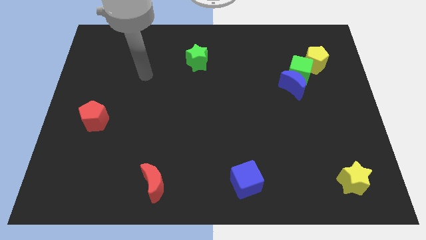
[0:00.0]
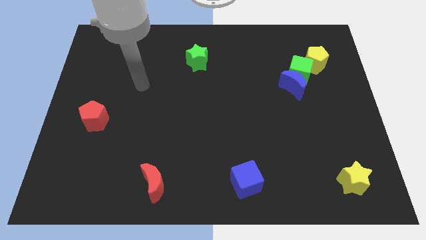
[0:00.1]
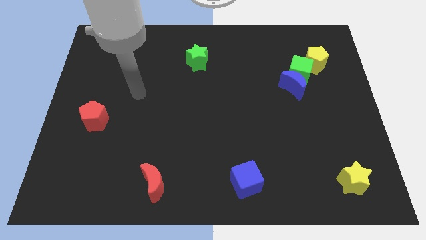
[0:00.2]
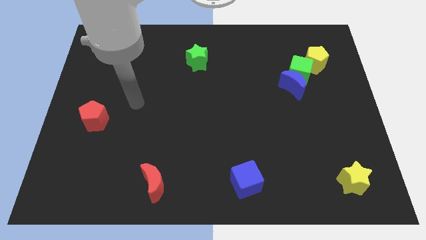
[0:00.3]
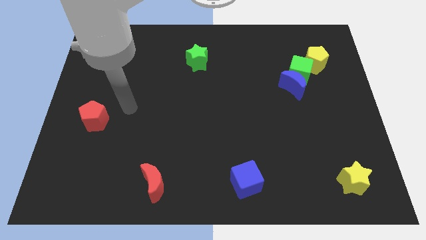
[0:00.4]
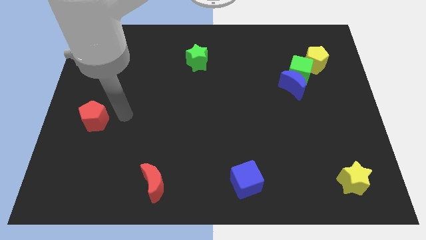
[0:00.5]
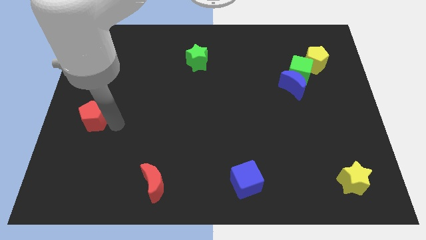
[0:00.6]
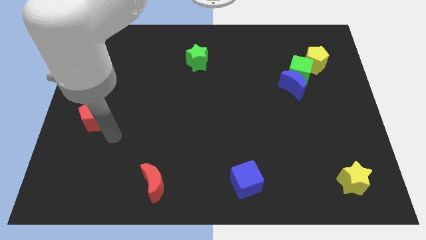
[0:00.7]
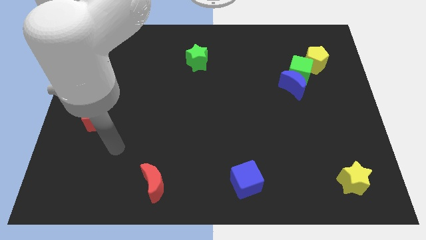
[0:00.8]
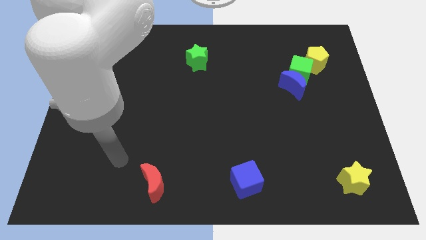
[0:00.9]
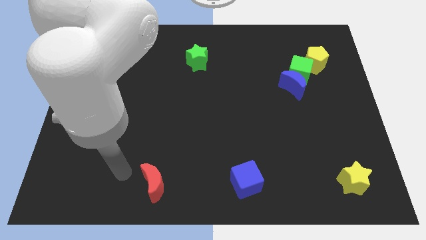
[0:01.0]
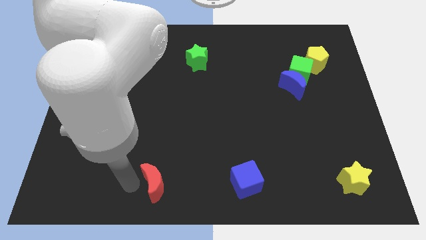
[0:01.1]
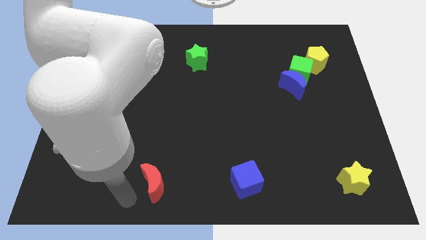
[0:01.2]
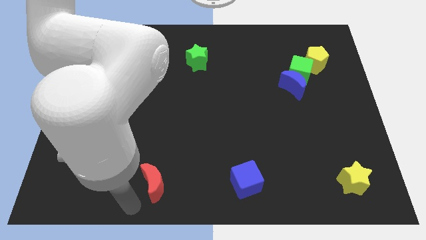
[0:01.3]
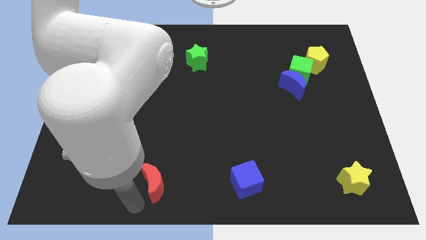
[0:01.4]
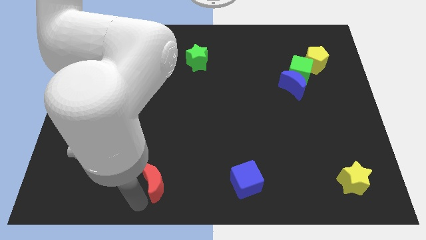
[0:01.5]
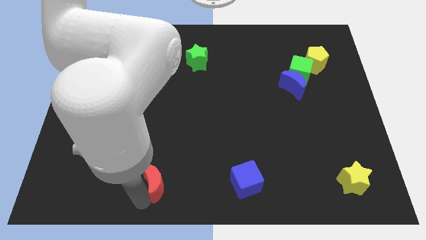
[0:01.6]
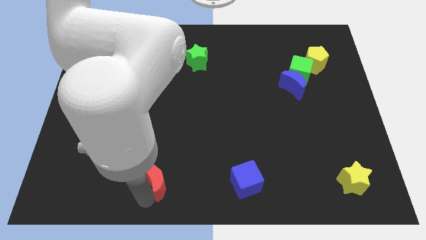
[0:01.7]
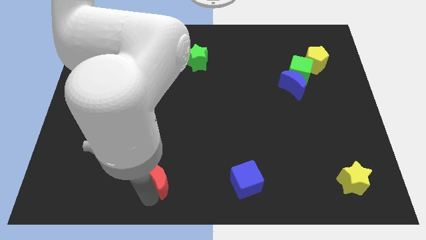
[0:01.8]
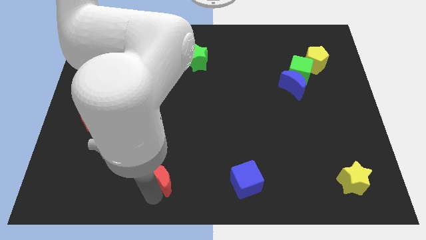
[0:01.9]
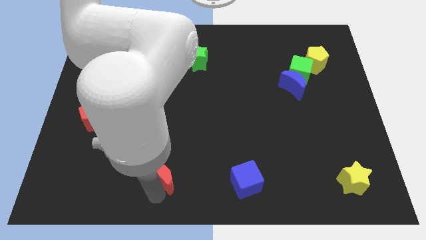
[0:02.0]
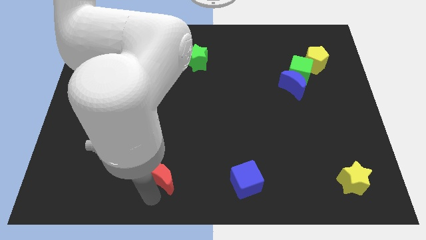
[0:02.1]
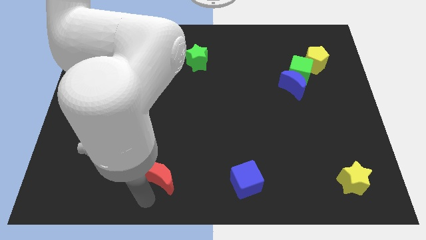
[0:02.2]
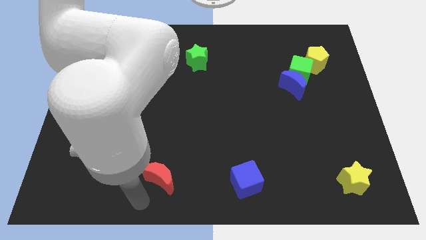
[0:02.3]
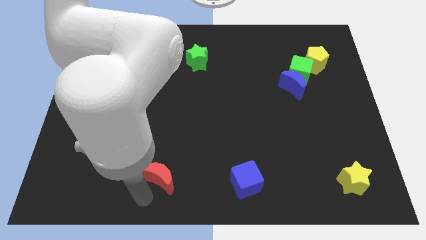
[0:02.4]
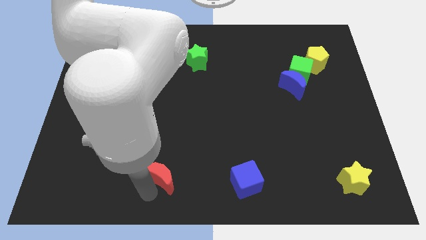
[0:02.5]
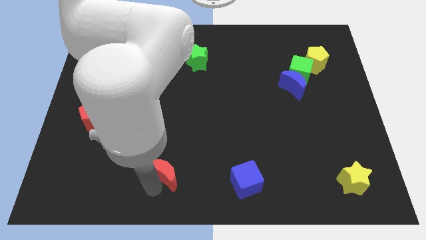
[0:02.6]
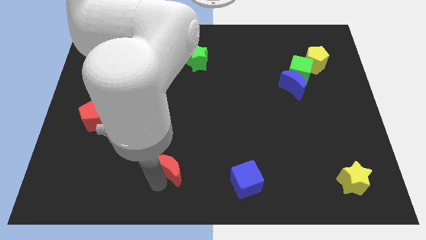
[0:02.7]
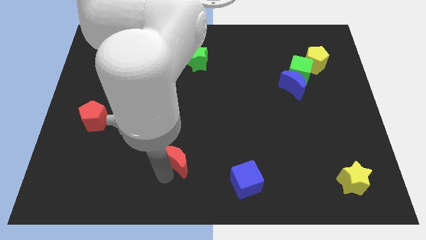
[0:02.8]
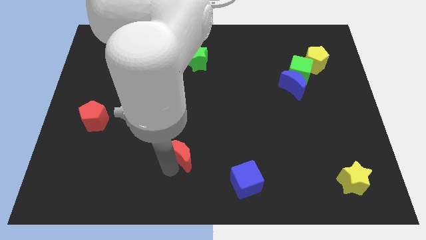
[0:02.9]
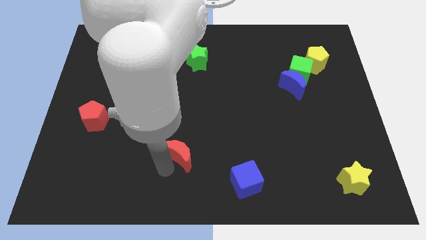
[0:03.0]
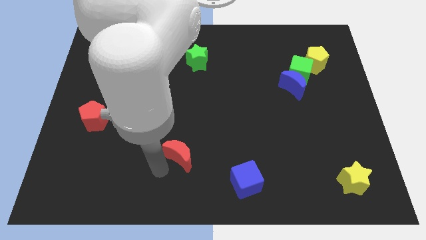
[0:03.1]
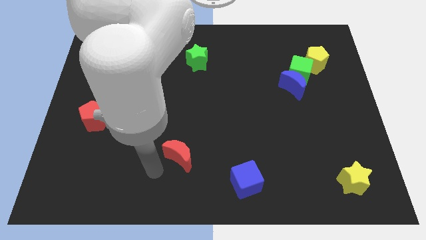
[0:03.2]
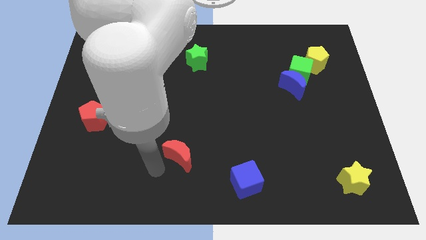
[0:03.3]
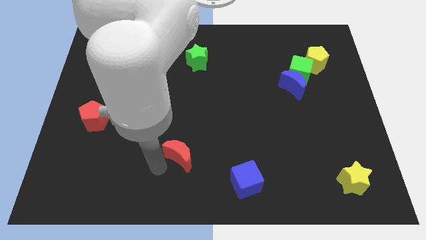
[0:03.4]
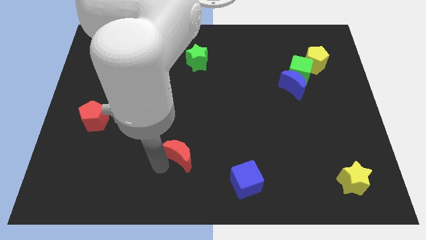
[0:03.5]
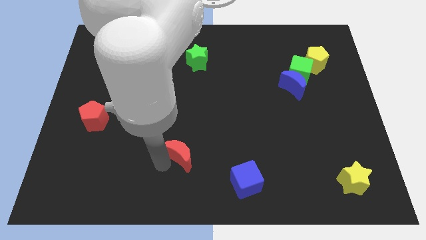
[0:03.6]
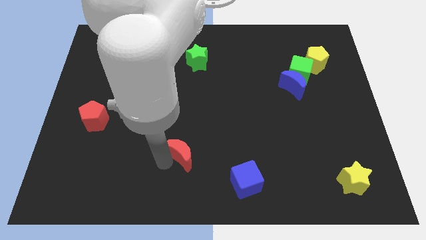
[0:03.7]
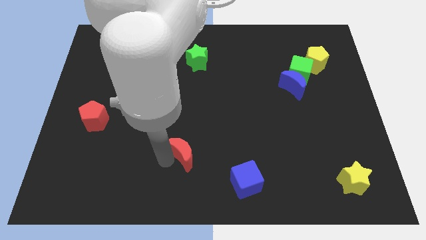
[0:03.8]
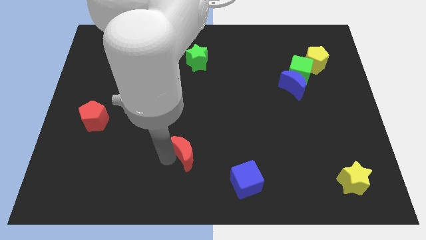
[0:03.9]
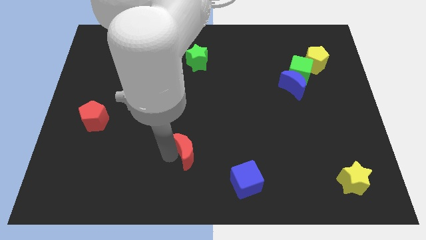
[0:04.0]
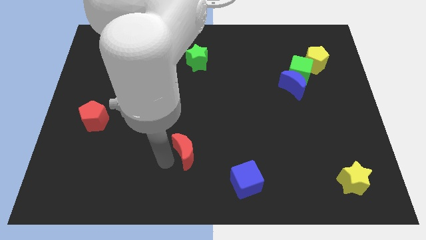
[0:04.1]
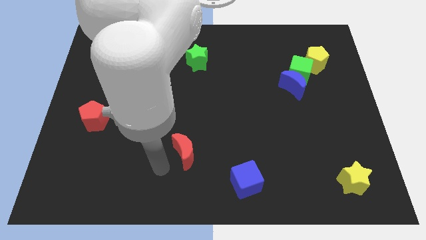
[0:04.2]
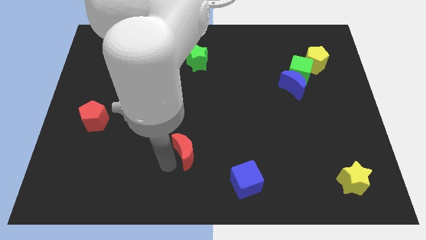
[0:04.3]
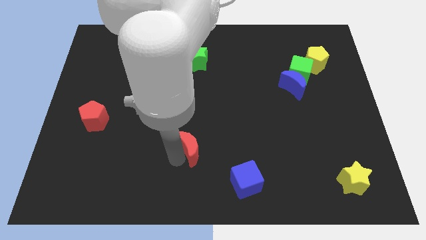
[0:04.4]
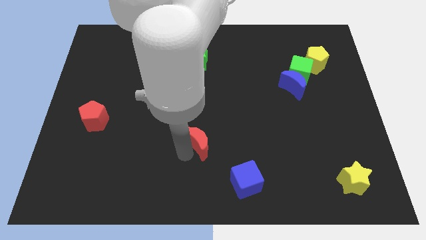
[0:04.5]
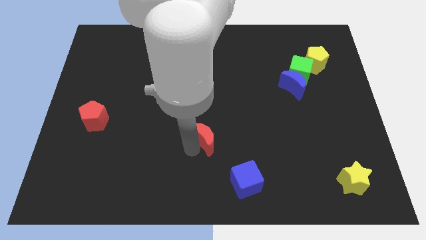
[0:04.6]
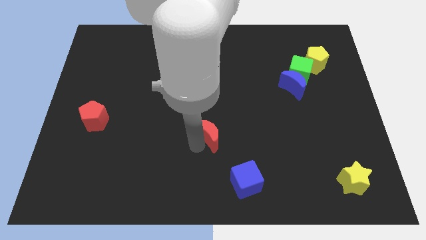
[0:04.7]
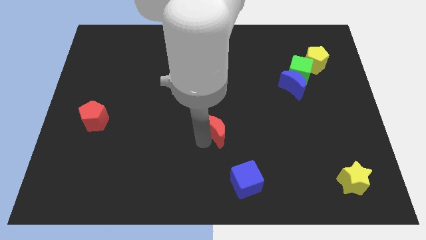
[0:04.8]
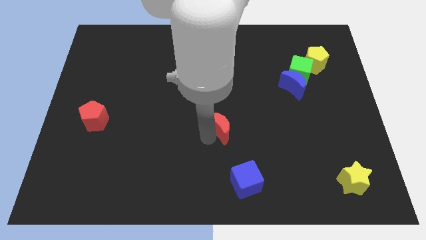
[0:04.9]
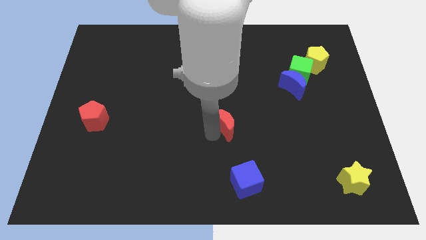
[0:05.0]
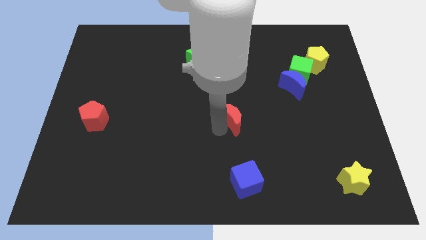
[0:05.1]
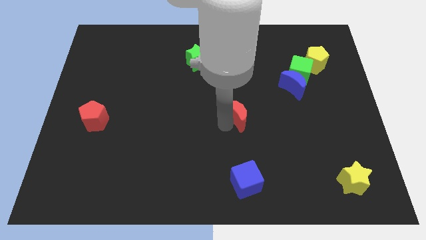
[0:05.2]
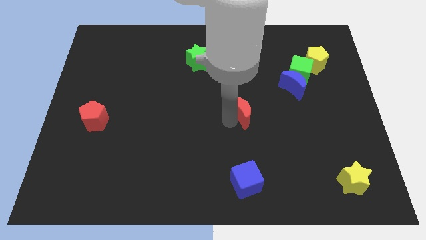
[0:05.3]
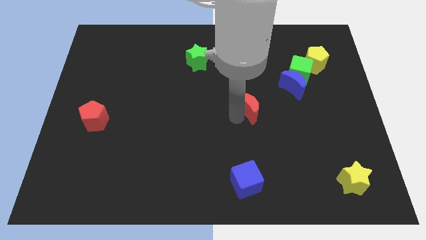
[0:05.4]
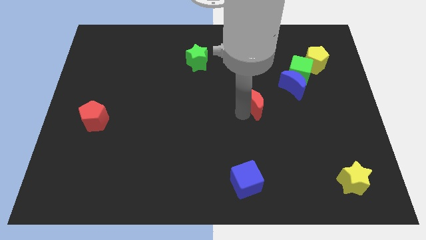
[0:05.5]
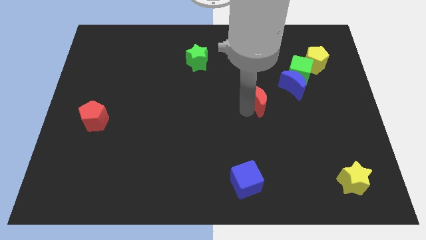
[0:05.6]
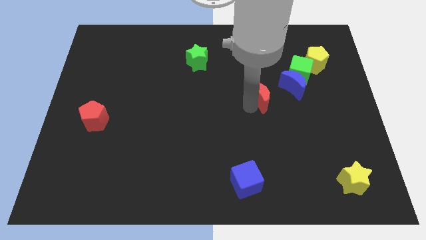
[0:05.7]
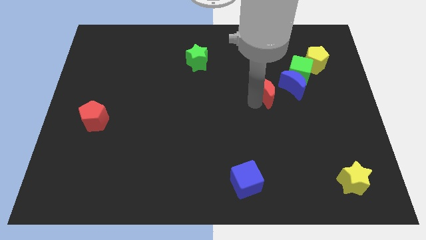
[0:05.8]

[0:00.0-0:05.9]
move the red moon to the bottom left side of the green cube

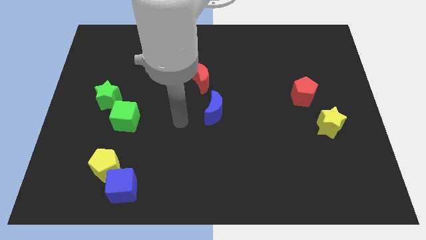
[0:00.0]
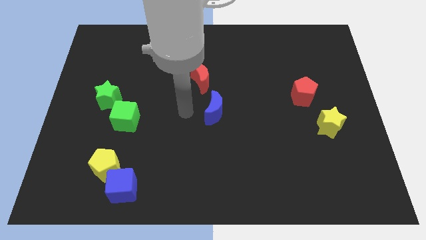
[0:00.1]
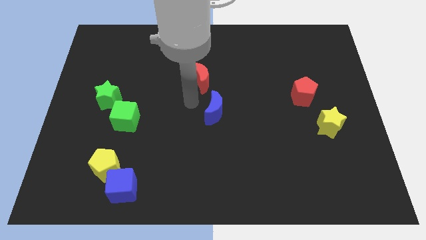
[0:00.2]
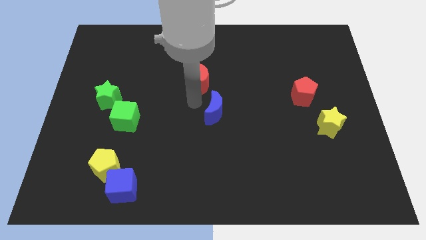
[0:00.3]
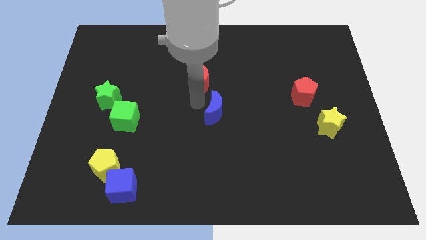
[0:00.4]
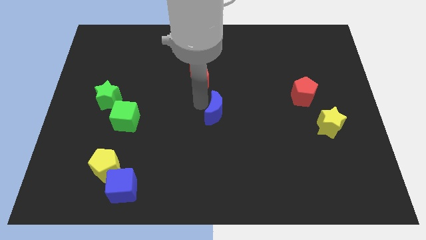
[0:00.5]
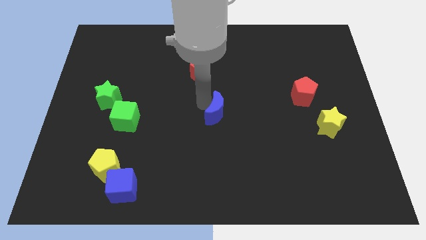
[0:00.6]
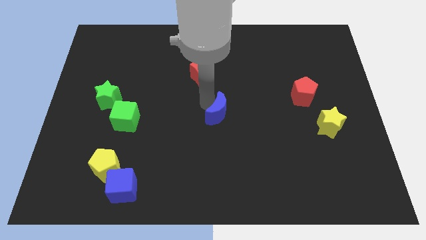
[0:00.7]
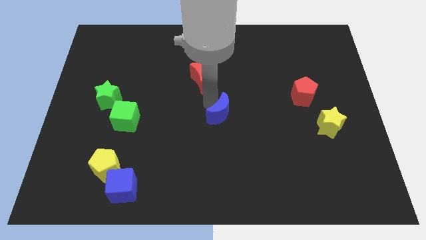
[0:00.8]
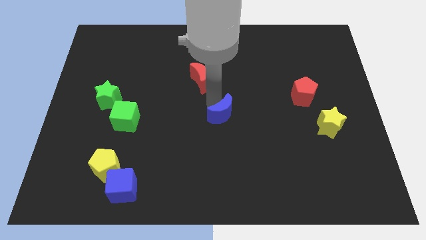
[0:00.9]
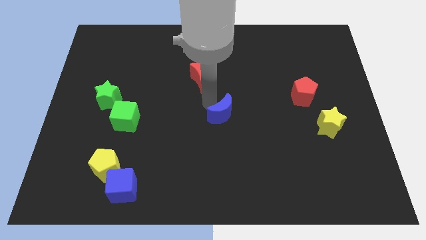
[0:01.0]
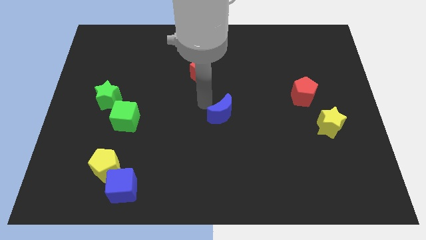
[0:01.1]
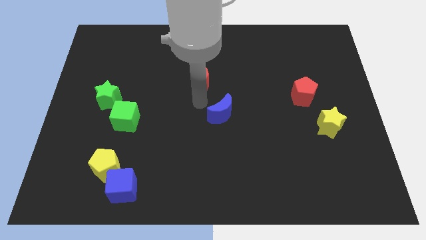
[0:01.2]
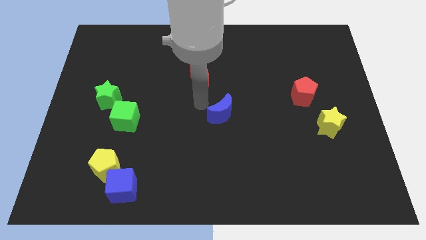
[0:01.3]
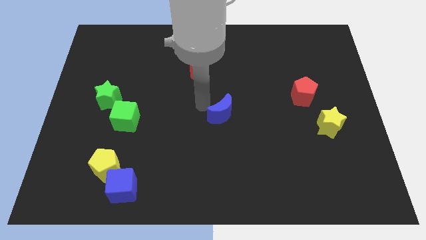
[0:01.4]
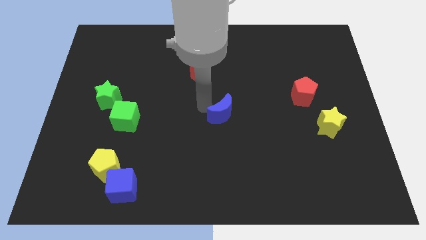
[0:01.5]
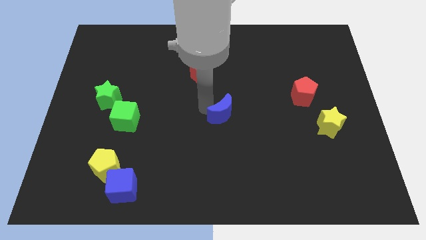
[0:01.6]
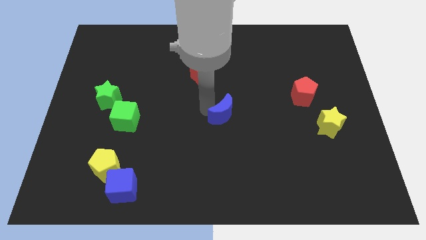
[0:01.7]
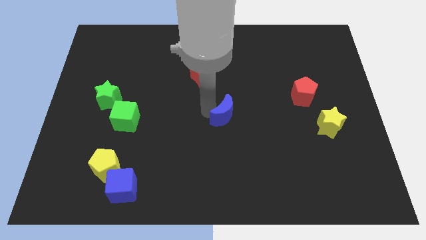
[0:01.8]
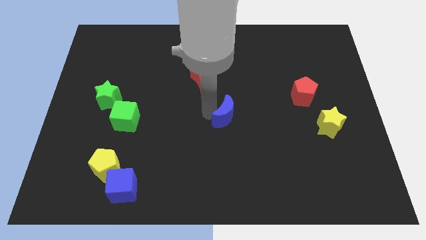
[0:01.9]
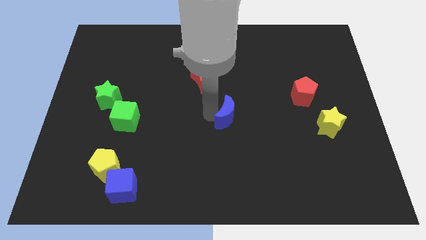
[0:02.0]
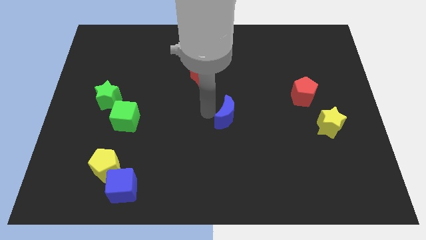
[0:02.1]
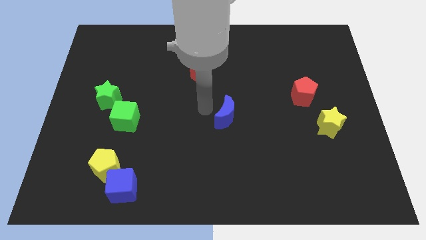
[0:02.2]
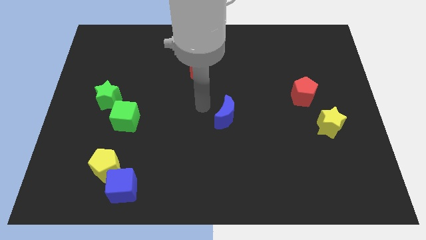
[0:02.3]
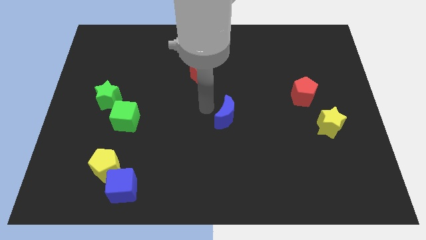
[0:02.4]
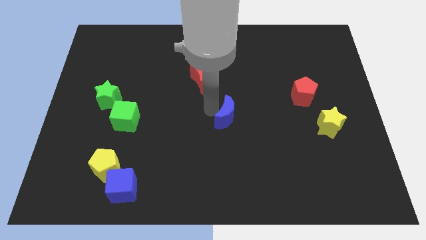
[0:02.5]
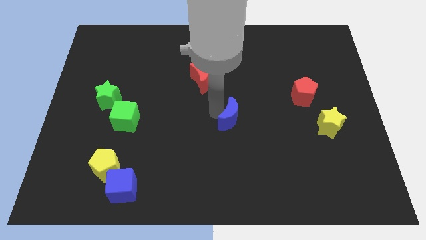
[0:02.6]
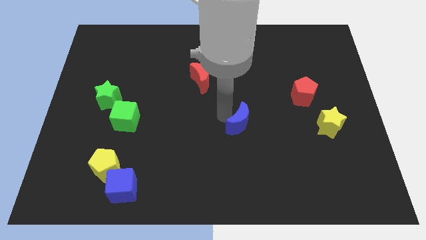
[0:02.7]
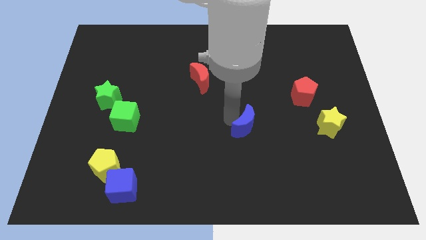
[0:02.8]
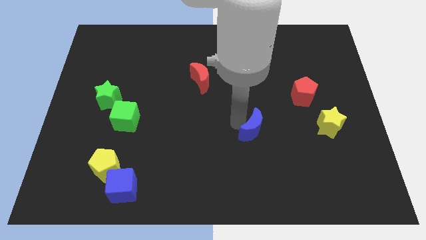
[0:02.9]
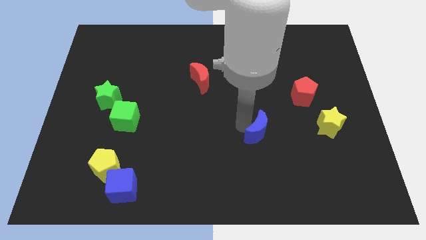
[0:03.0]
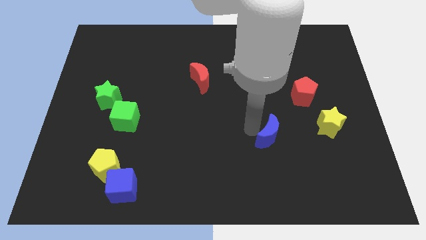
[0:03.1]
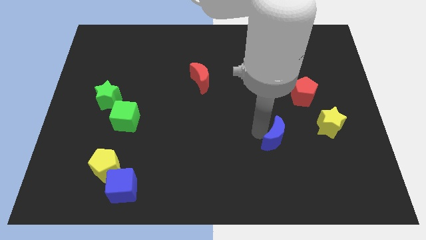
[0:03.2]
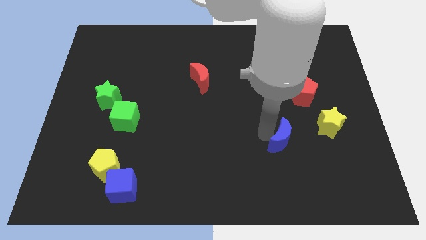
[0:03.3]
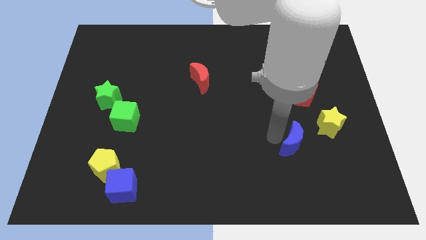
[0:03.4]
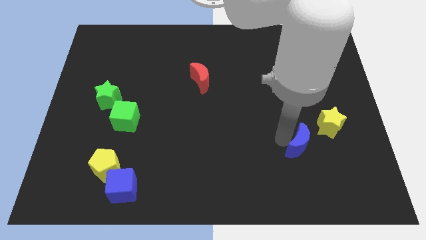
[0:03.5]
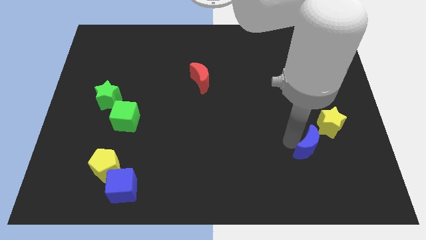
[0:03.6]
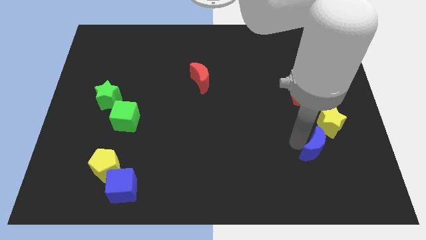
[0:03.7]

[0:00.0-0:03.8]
slide the blue moon to the bottom side of the yellow star
